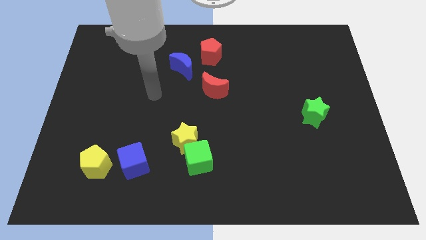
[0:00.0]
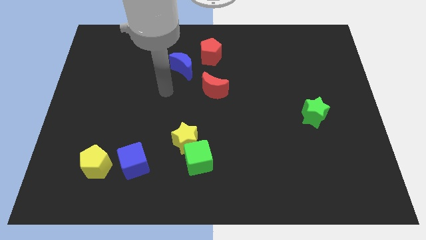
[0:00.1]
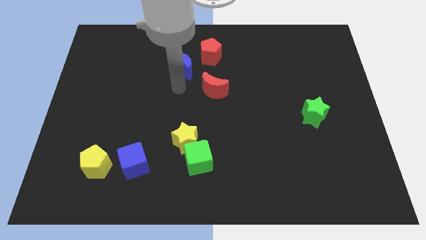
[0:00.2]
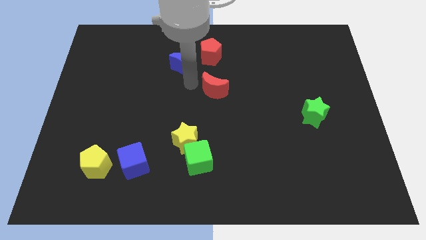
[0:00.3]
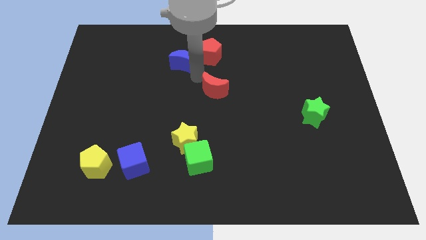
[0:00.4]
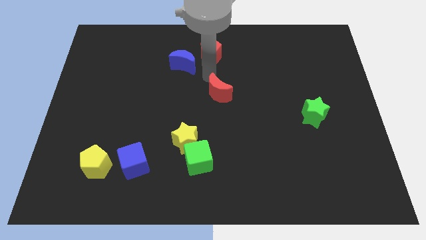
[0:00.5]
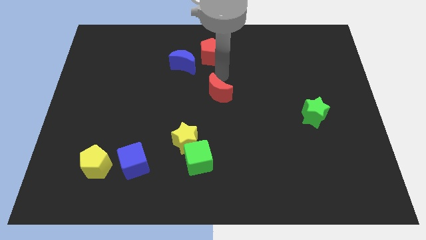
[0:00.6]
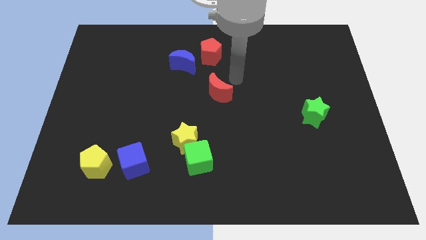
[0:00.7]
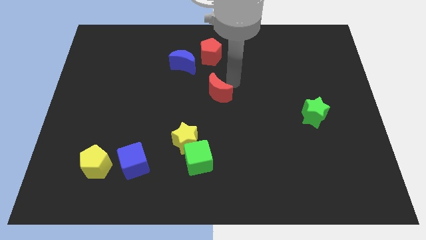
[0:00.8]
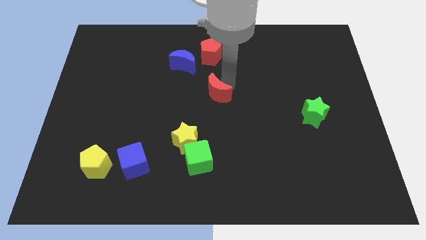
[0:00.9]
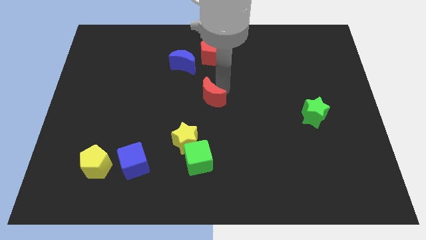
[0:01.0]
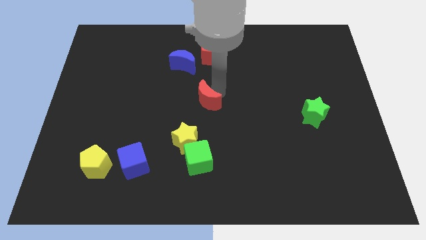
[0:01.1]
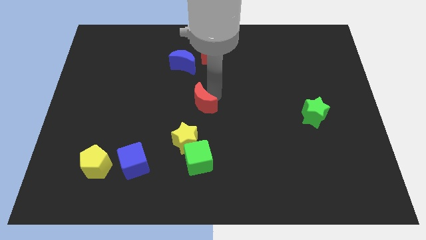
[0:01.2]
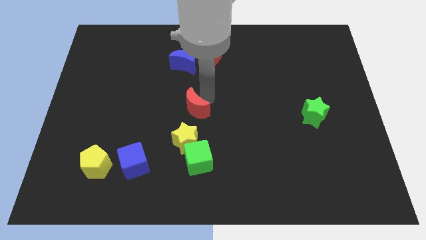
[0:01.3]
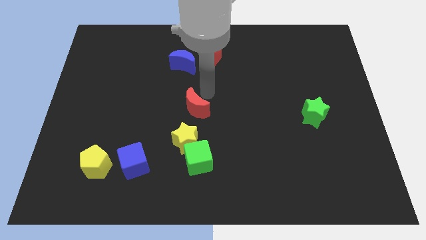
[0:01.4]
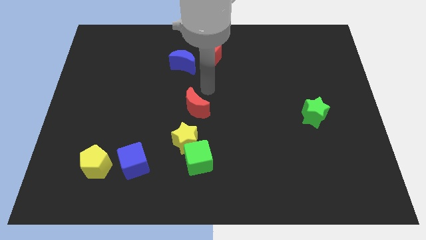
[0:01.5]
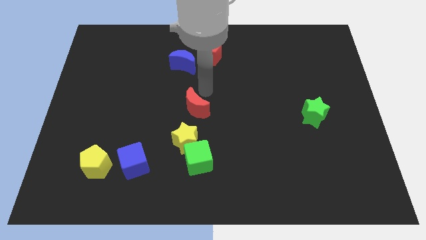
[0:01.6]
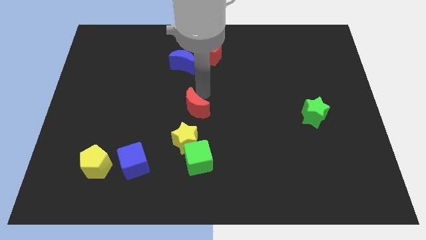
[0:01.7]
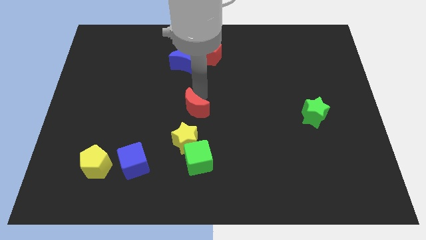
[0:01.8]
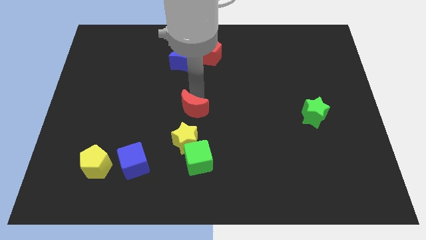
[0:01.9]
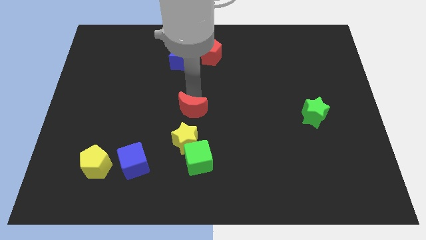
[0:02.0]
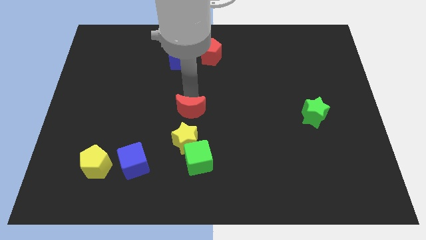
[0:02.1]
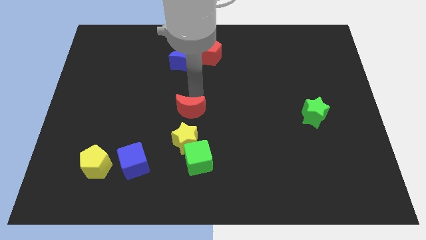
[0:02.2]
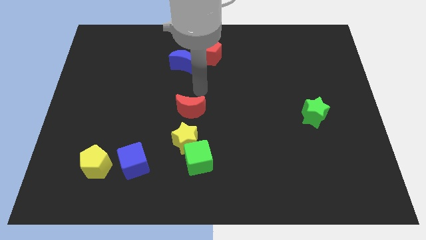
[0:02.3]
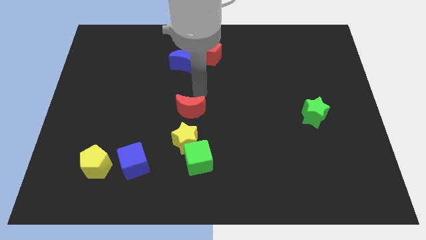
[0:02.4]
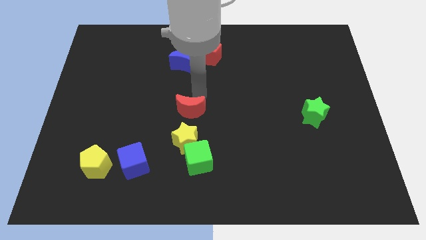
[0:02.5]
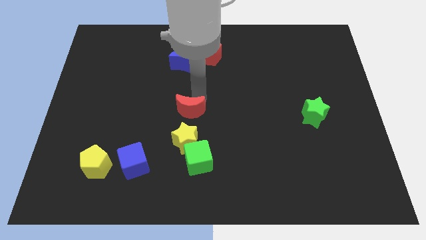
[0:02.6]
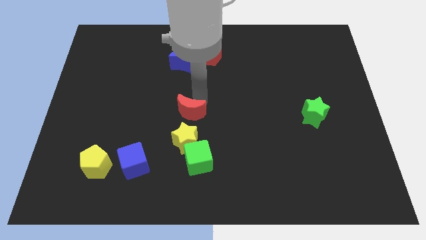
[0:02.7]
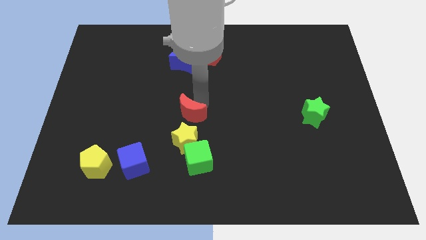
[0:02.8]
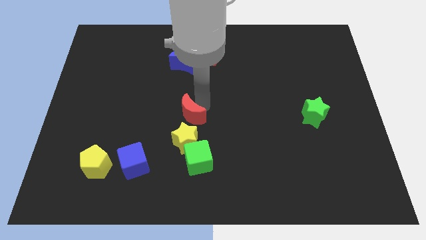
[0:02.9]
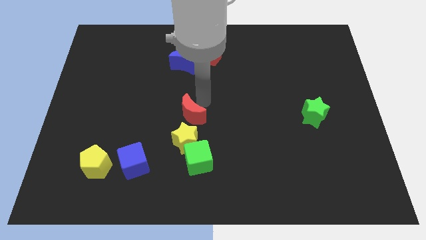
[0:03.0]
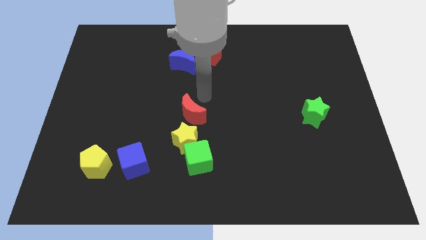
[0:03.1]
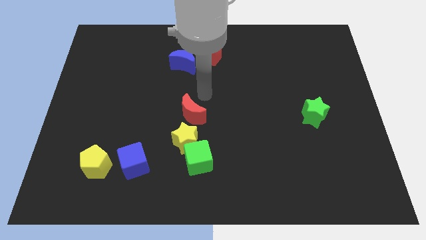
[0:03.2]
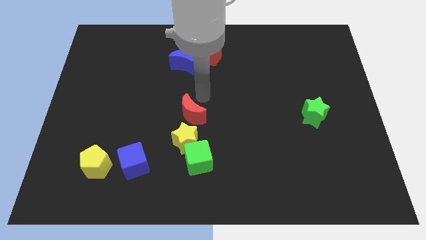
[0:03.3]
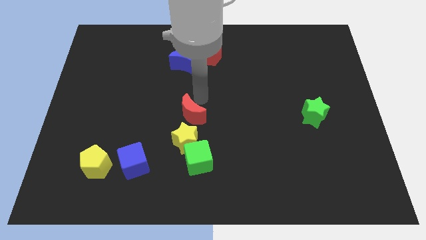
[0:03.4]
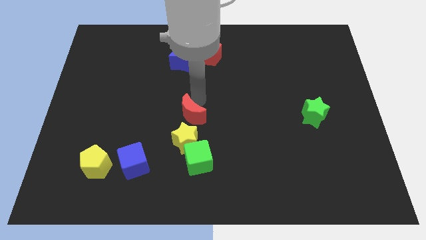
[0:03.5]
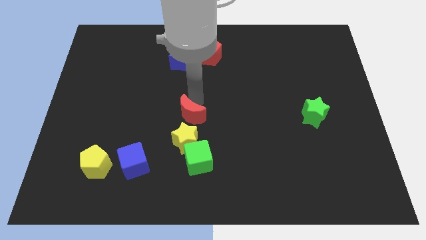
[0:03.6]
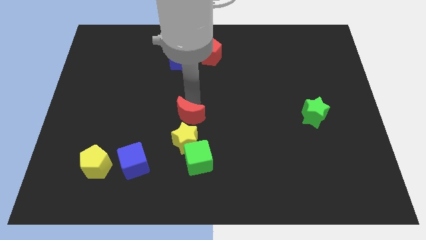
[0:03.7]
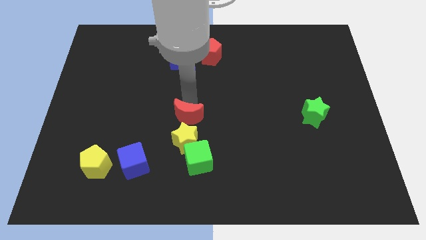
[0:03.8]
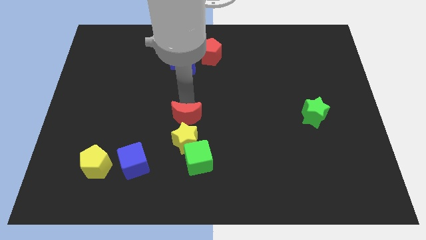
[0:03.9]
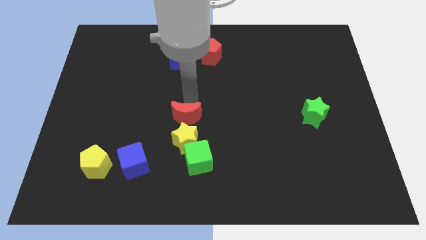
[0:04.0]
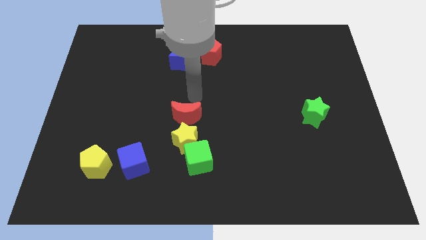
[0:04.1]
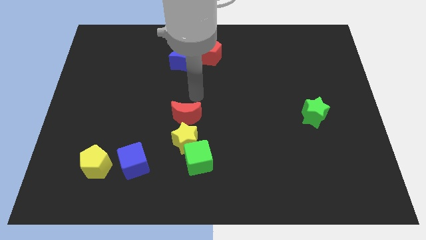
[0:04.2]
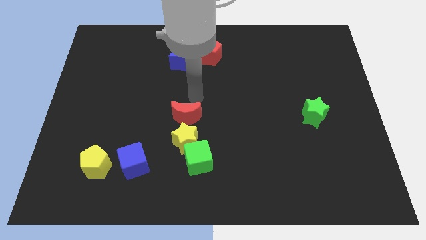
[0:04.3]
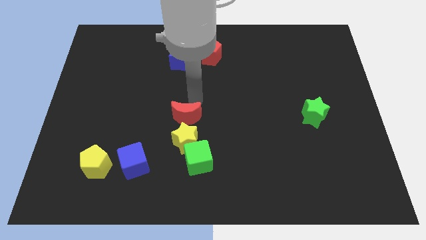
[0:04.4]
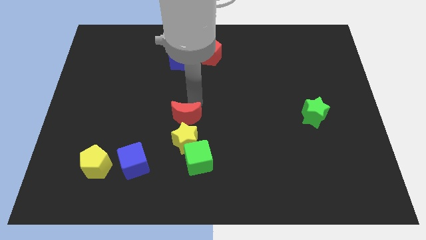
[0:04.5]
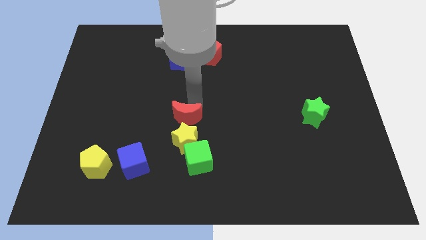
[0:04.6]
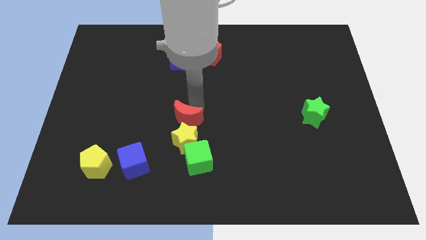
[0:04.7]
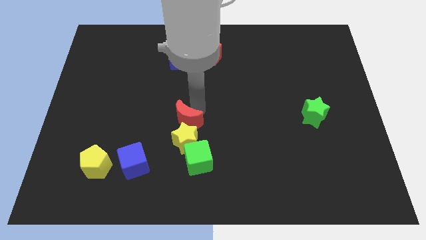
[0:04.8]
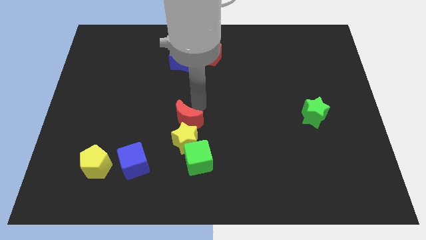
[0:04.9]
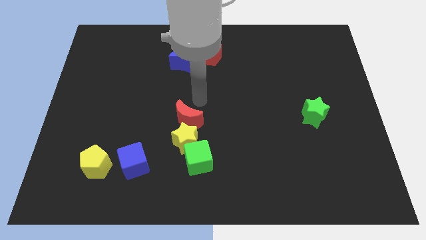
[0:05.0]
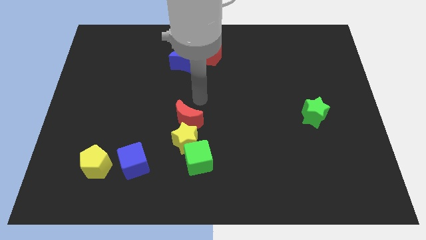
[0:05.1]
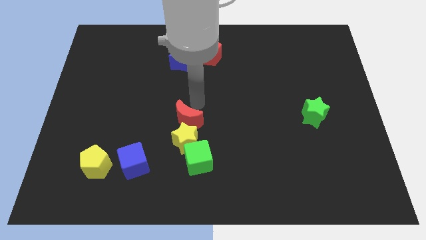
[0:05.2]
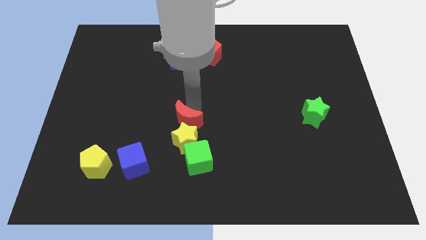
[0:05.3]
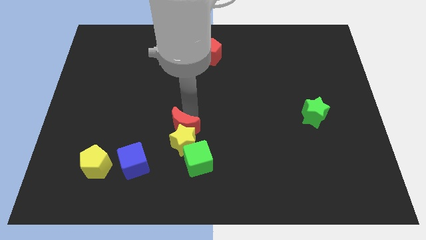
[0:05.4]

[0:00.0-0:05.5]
push the red moon to the top left of the green cube

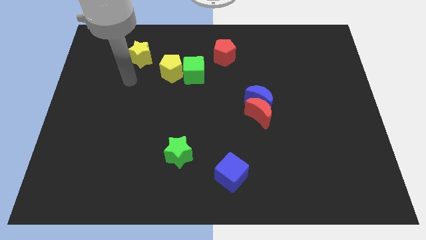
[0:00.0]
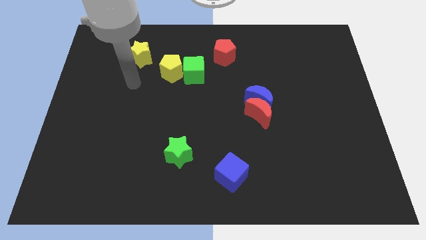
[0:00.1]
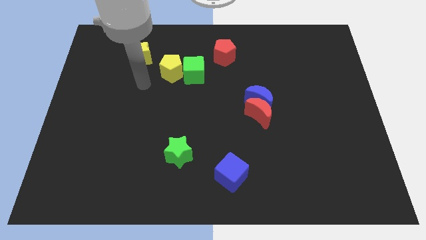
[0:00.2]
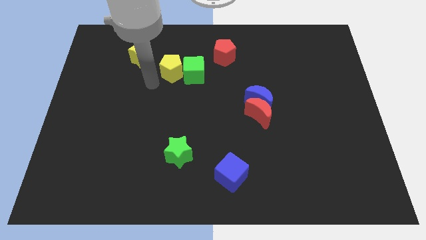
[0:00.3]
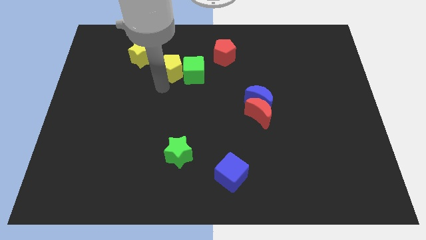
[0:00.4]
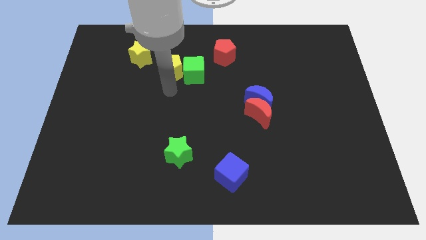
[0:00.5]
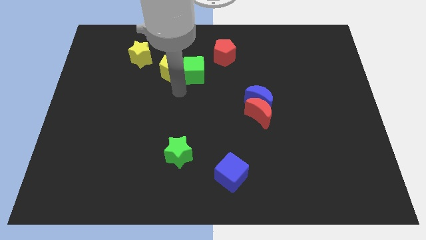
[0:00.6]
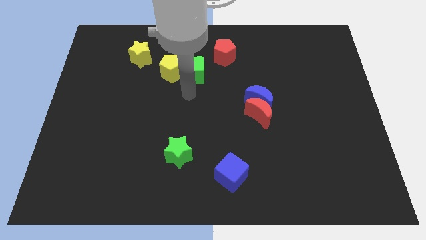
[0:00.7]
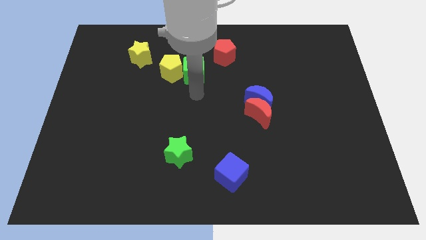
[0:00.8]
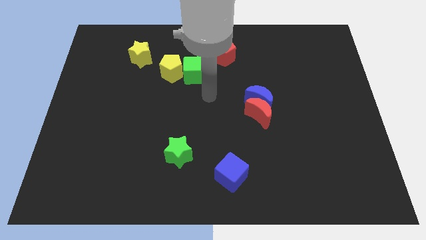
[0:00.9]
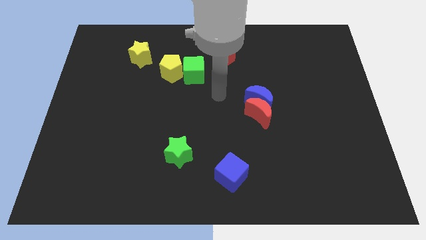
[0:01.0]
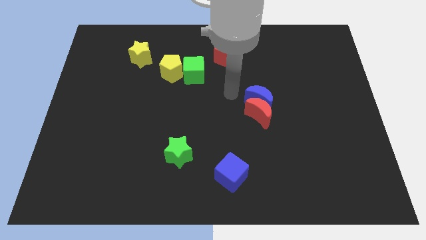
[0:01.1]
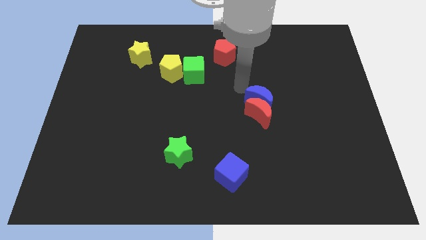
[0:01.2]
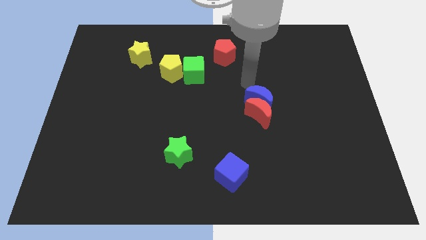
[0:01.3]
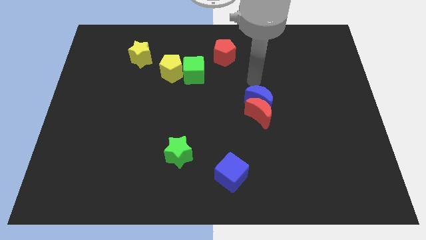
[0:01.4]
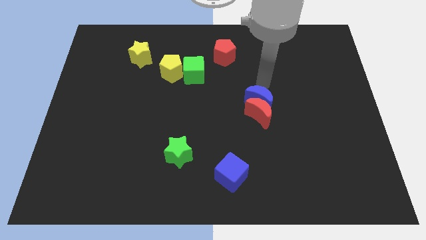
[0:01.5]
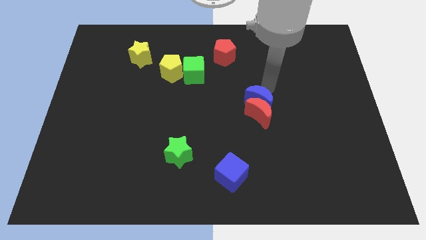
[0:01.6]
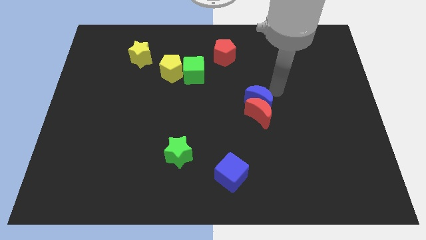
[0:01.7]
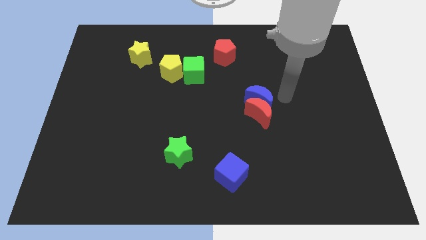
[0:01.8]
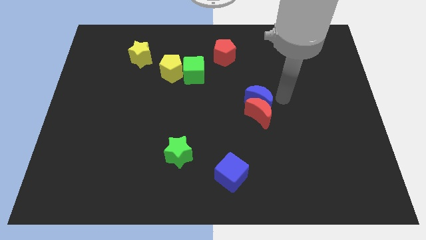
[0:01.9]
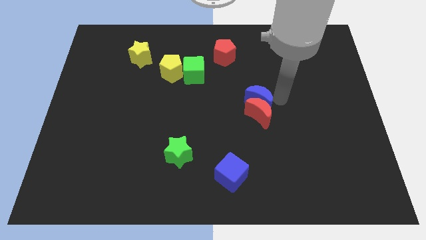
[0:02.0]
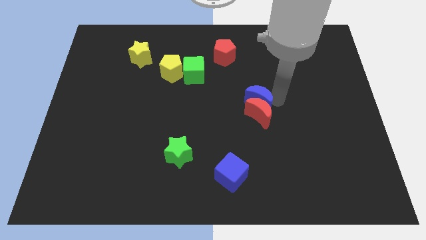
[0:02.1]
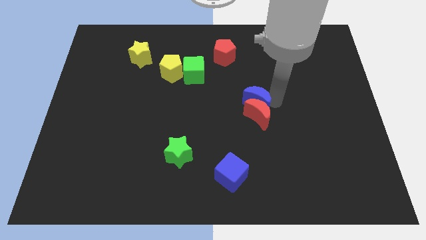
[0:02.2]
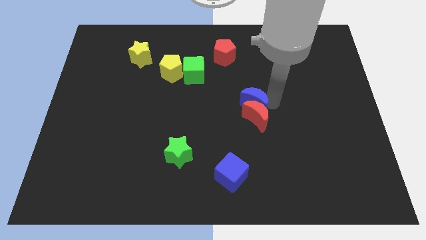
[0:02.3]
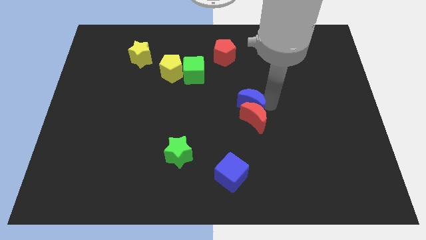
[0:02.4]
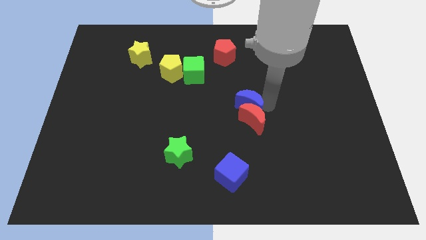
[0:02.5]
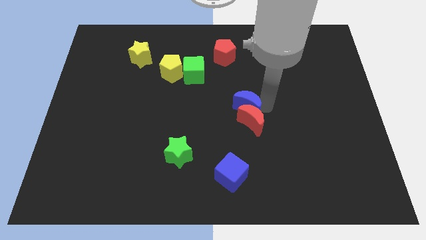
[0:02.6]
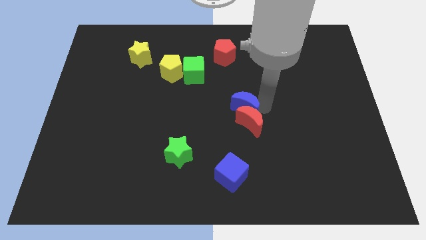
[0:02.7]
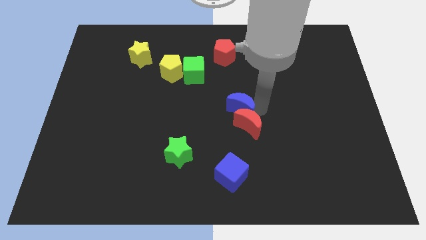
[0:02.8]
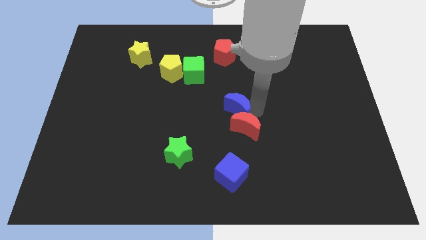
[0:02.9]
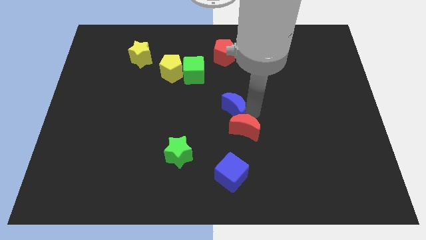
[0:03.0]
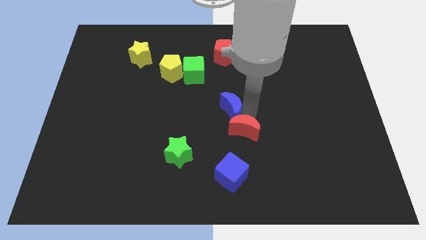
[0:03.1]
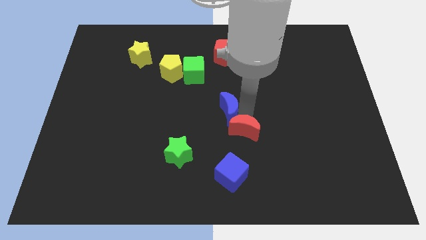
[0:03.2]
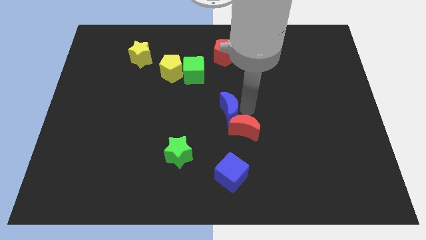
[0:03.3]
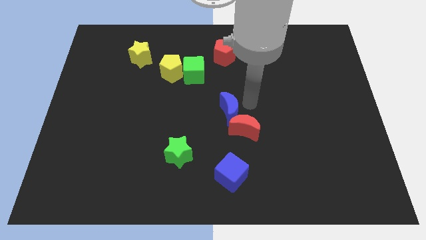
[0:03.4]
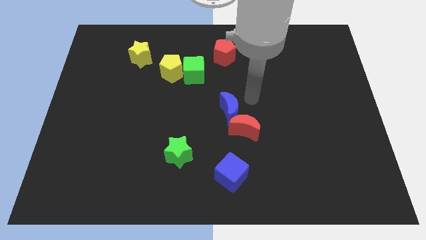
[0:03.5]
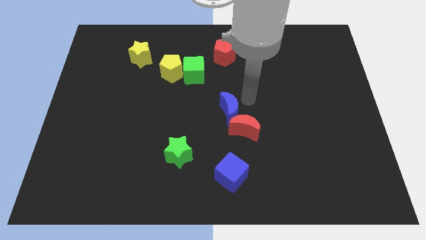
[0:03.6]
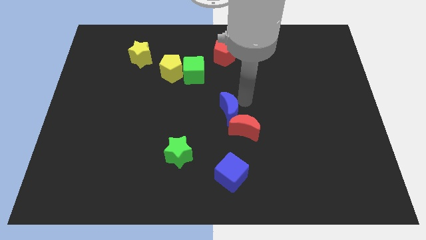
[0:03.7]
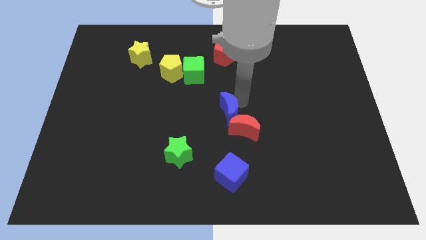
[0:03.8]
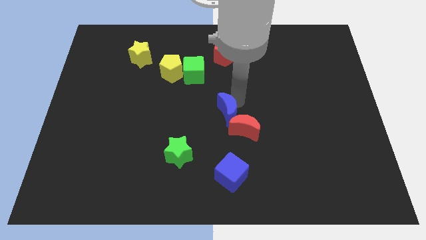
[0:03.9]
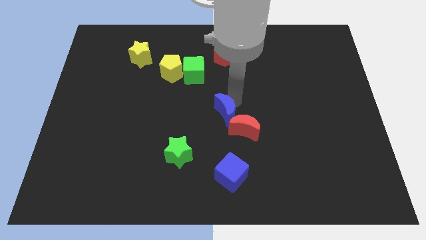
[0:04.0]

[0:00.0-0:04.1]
push the blue moon to the left of the red moon
